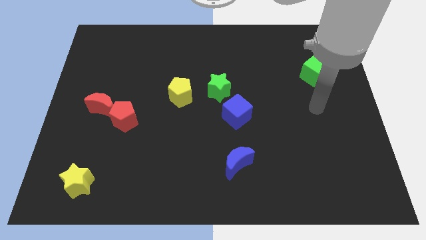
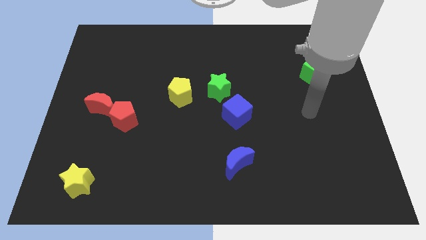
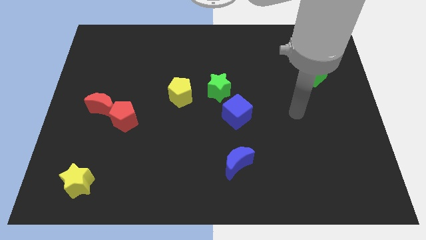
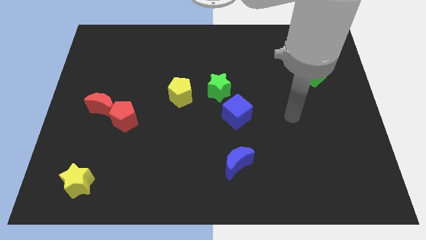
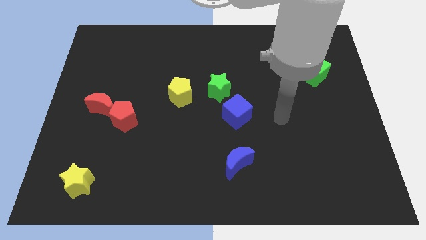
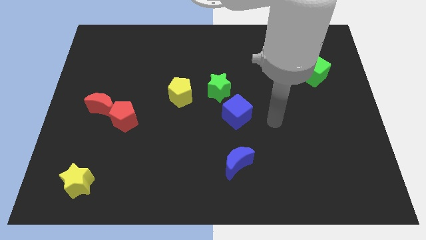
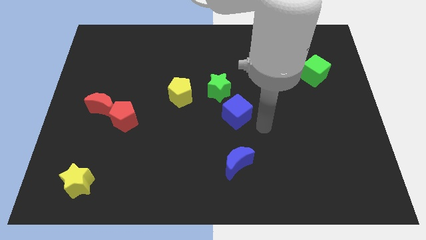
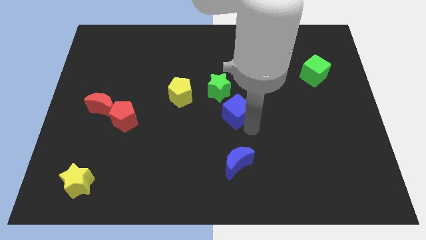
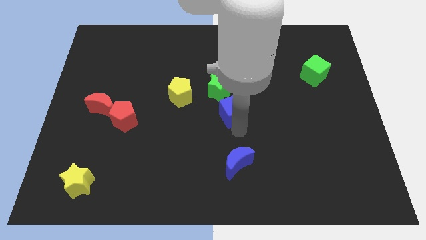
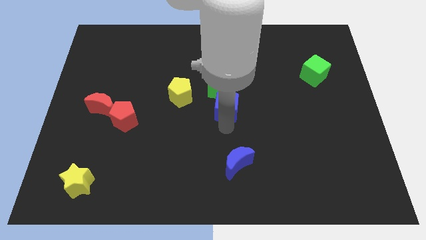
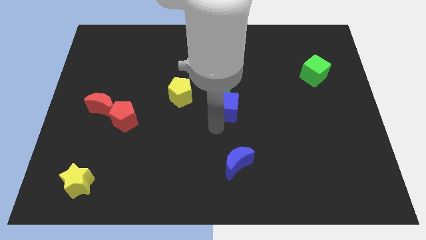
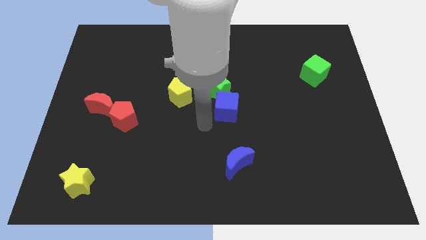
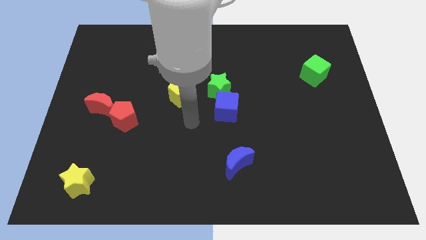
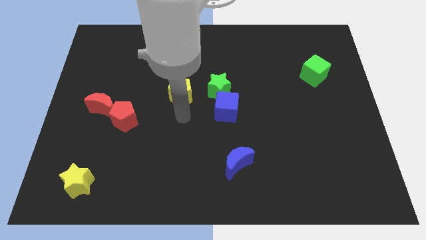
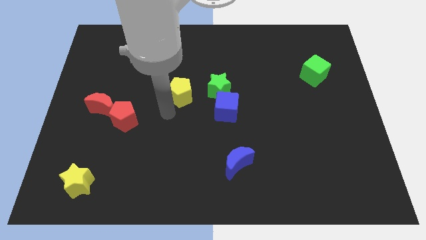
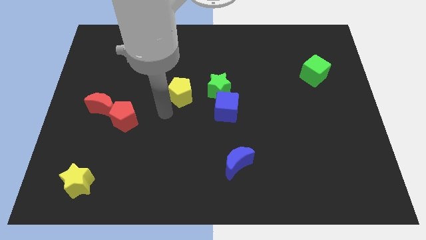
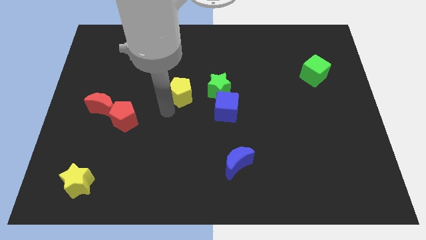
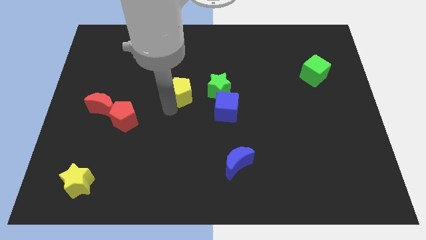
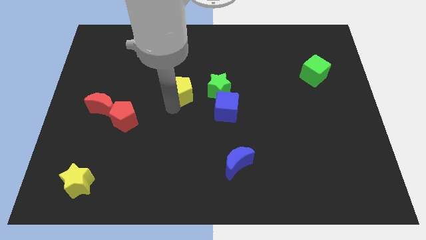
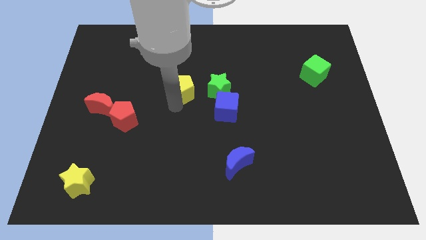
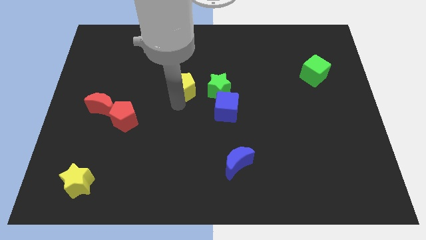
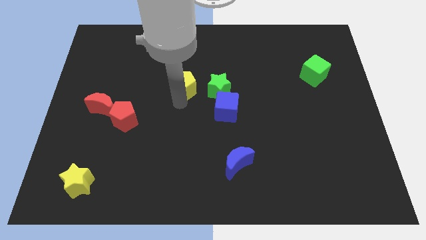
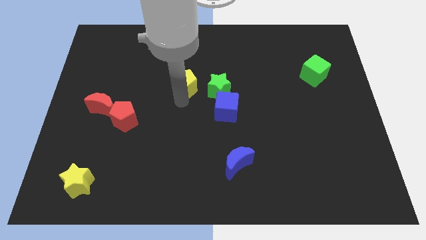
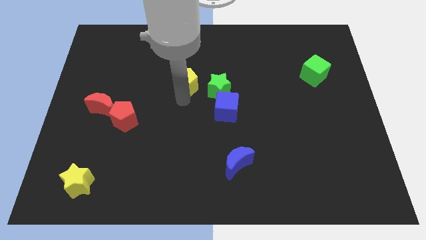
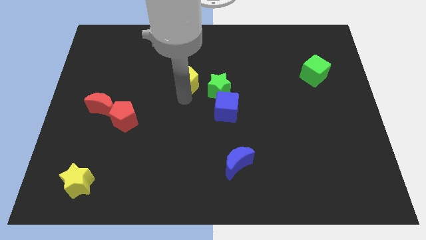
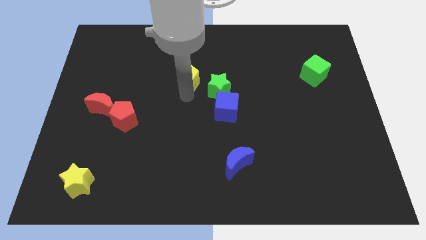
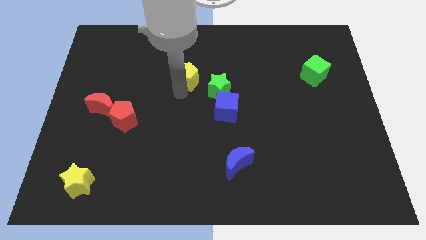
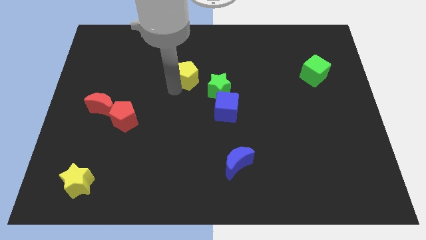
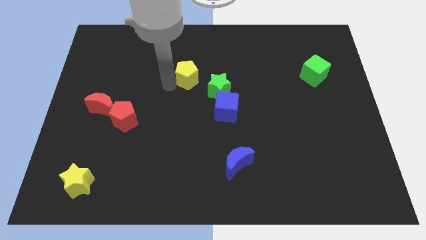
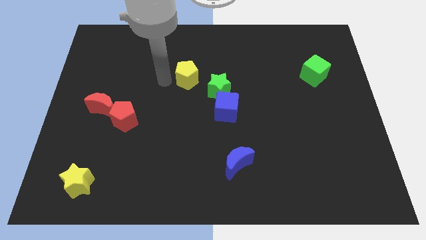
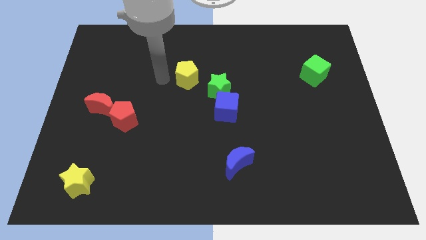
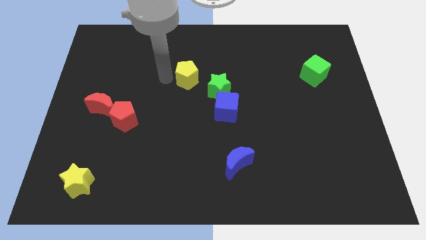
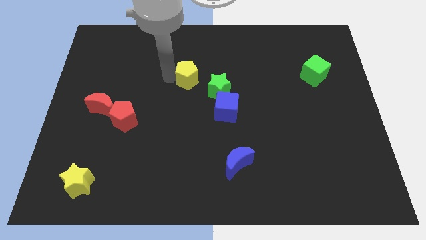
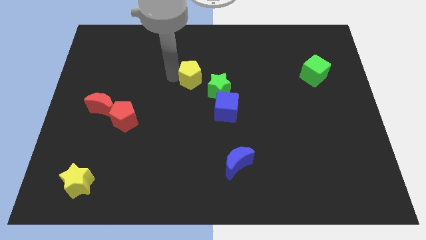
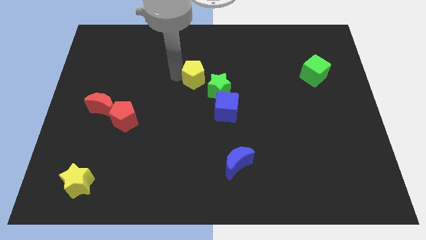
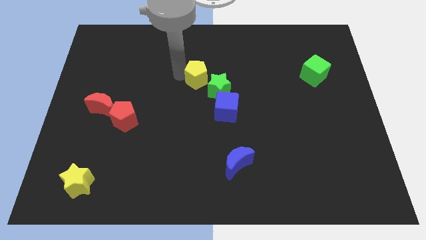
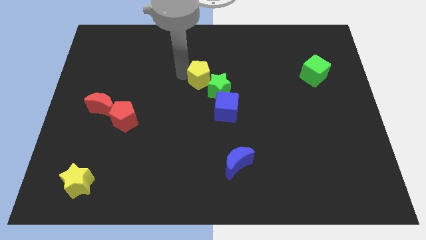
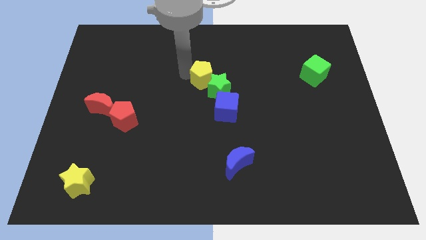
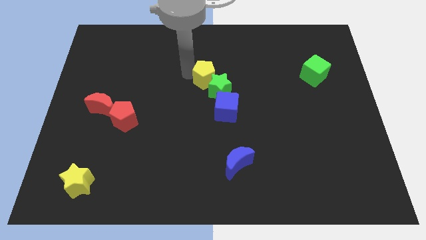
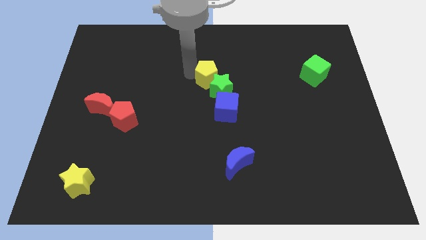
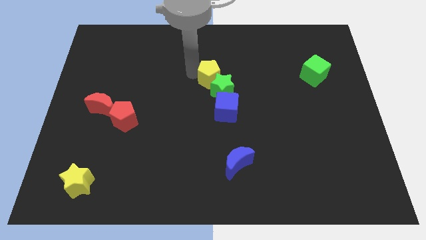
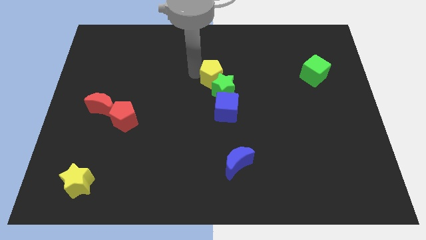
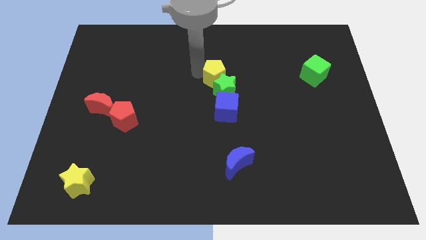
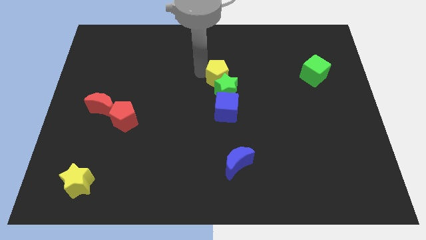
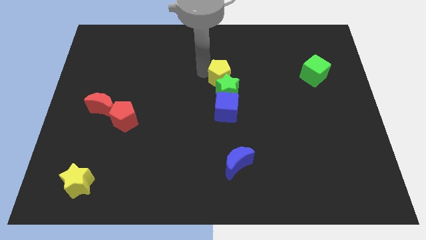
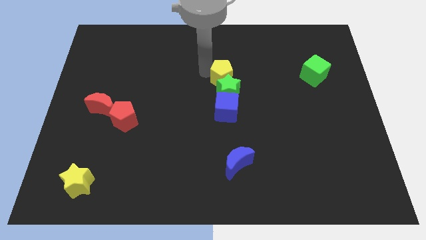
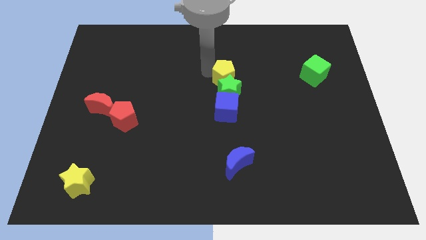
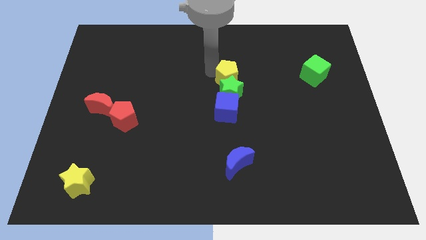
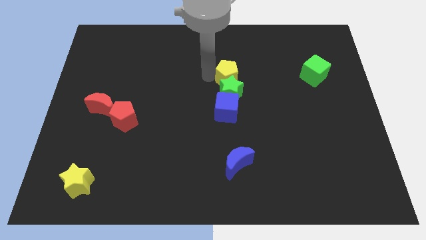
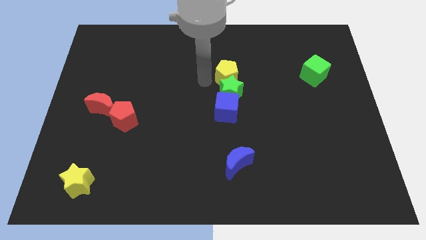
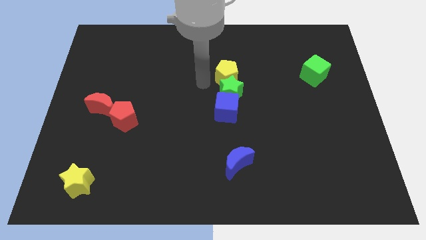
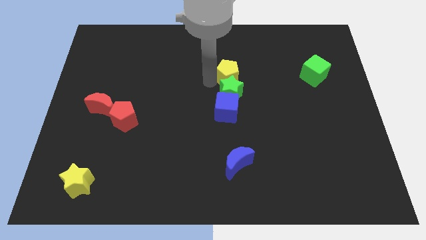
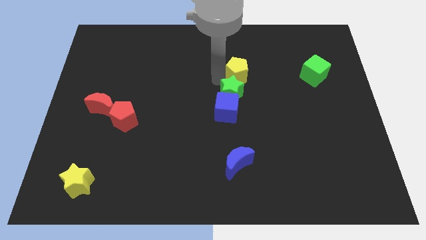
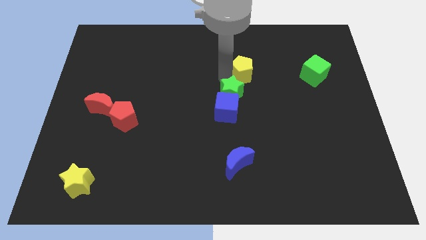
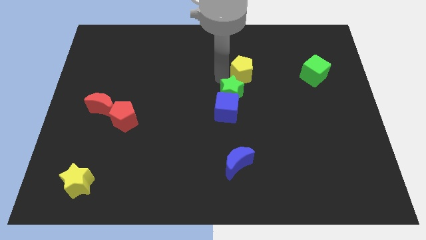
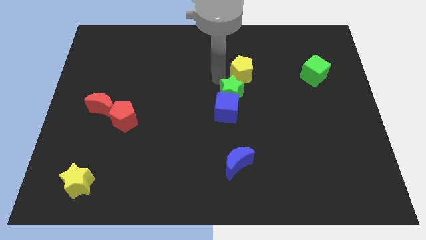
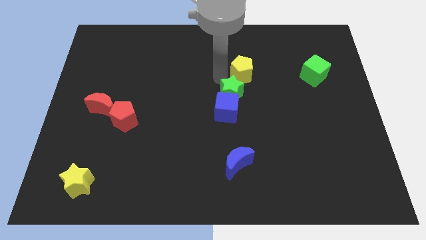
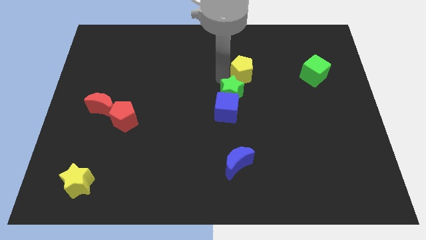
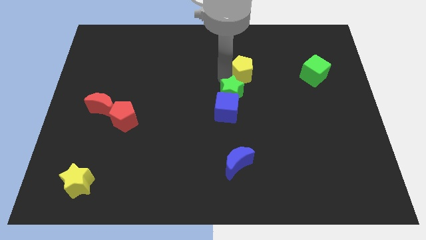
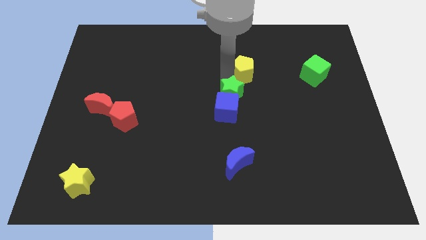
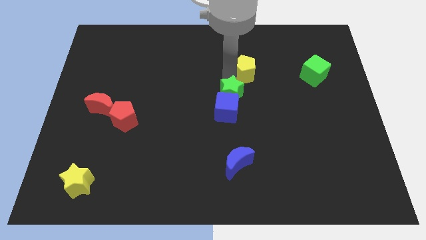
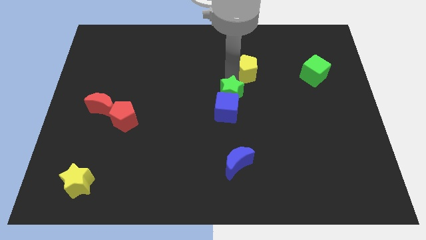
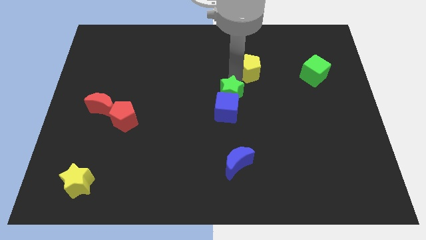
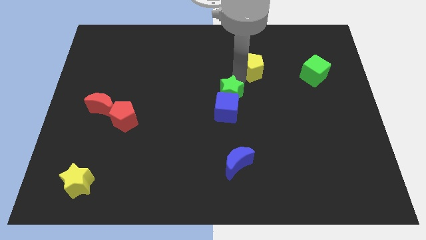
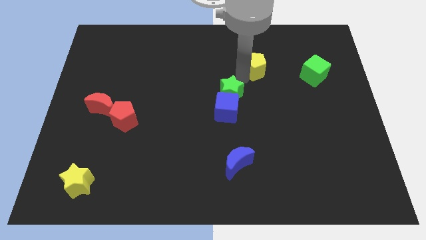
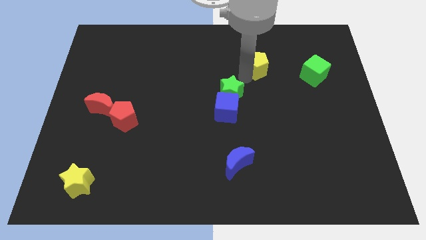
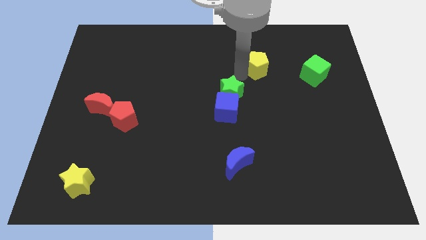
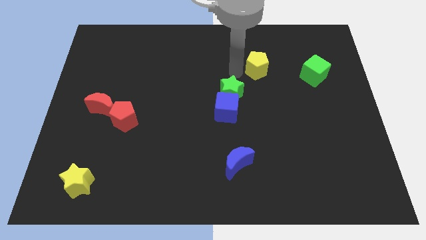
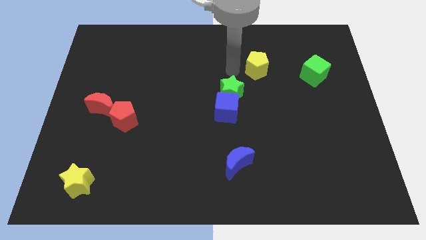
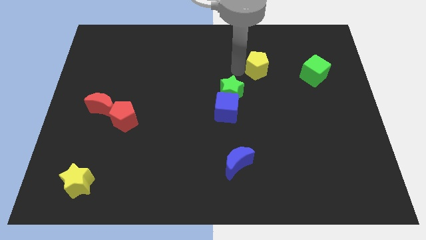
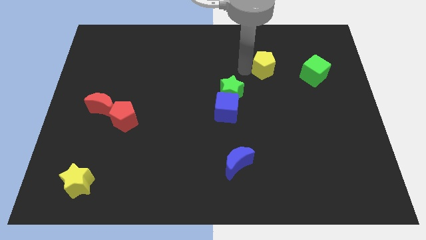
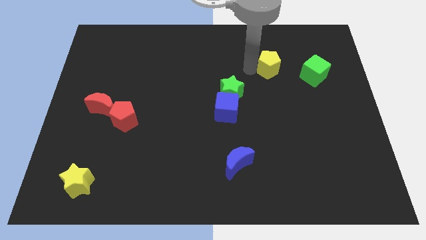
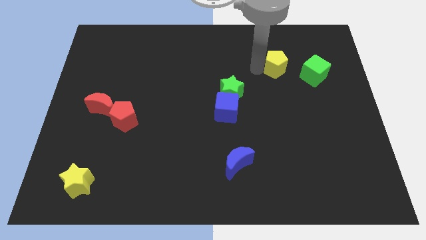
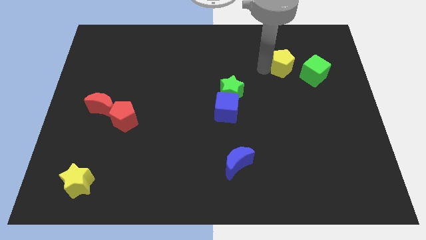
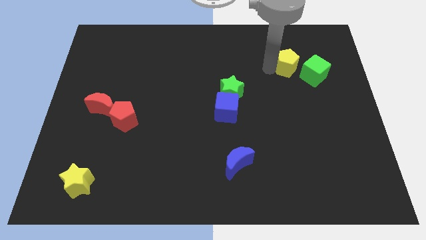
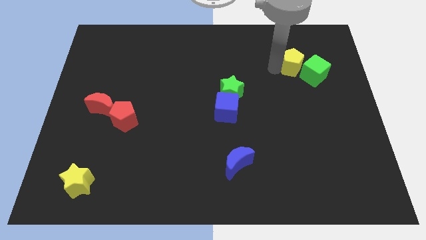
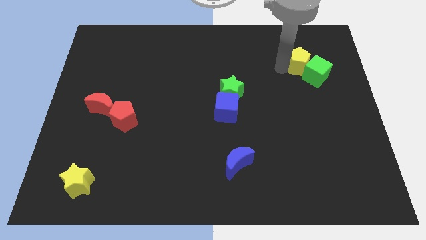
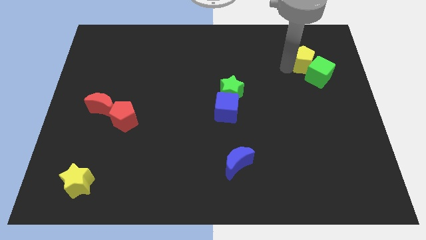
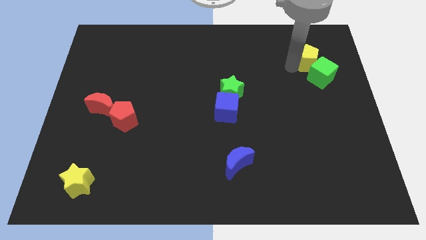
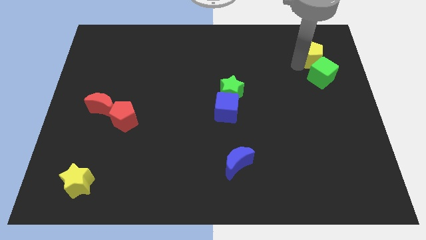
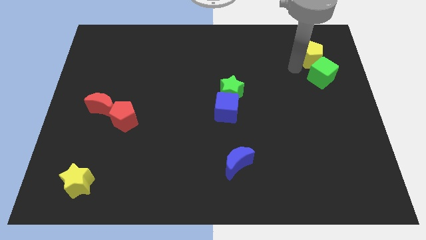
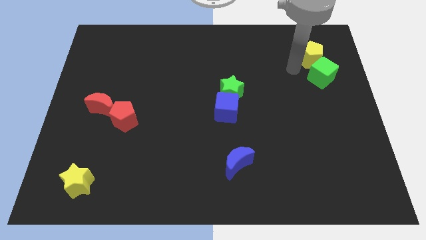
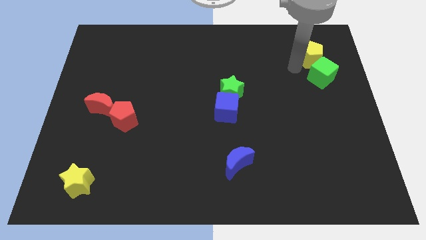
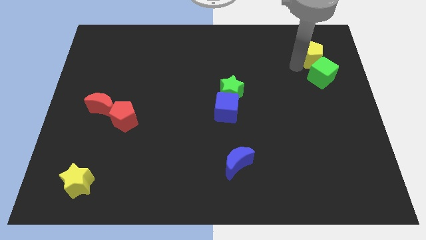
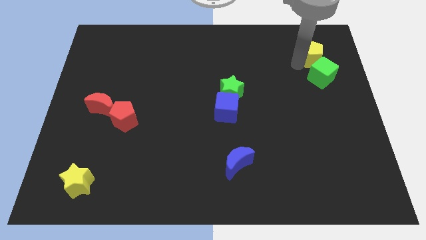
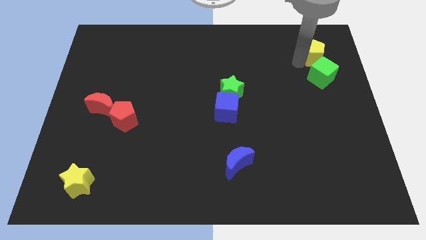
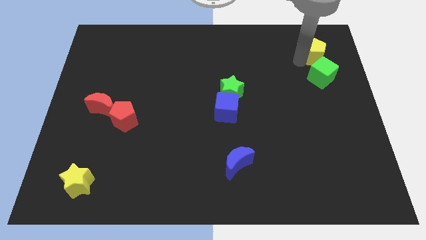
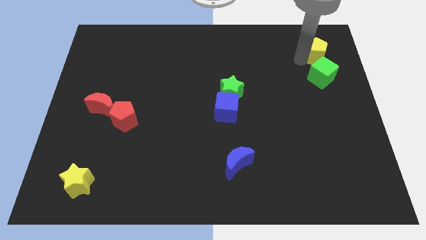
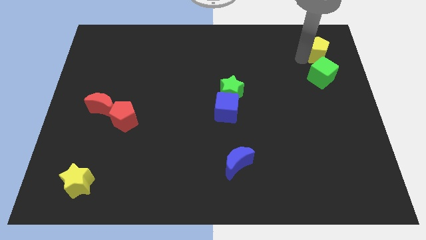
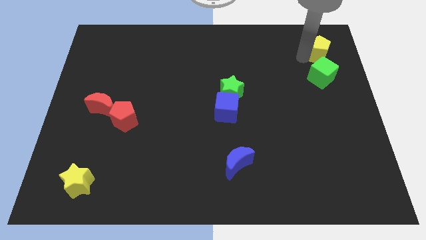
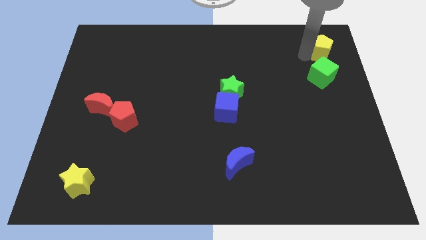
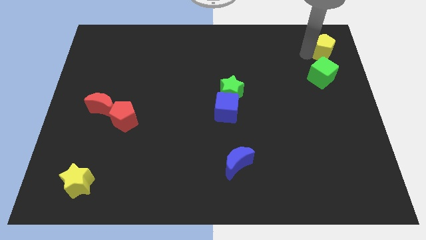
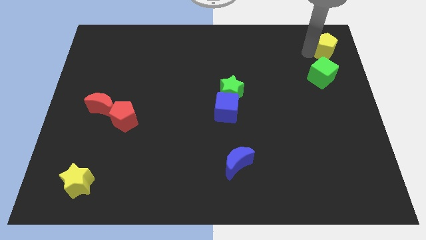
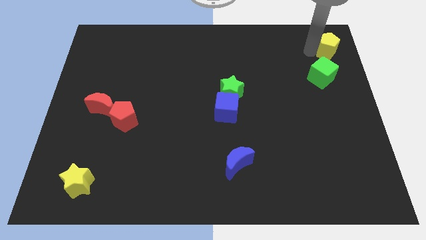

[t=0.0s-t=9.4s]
put the yellow pentagon to the top right corner
